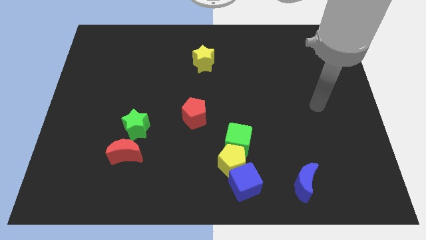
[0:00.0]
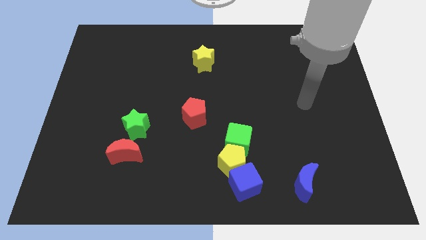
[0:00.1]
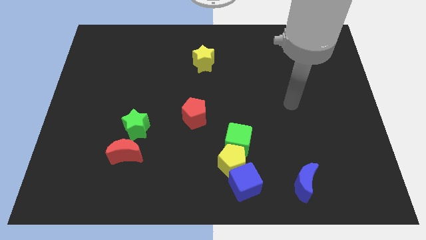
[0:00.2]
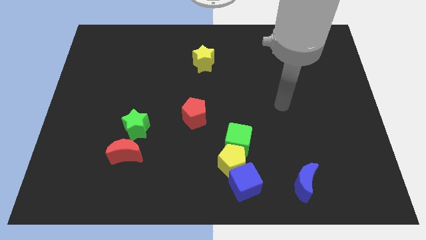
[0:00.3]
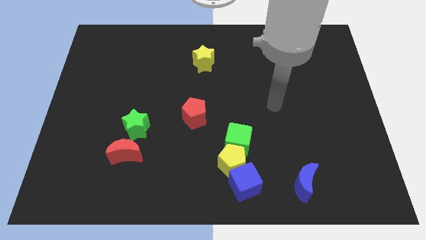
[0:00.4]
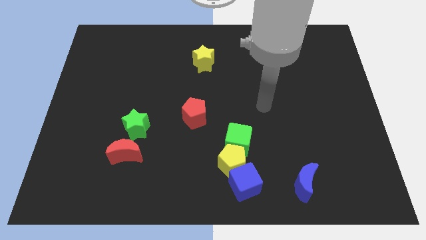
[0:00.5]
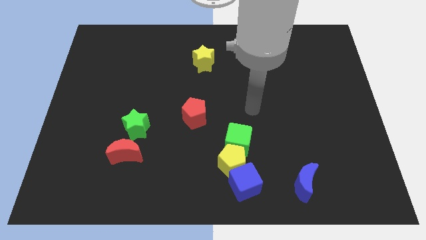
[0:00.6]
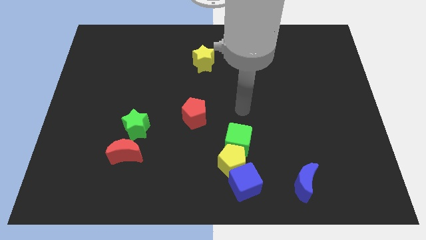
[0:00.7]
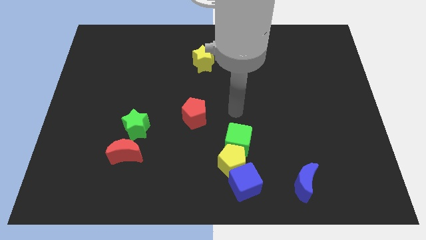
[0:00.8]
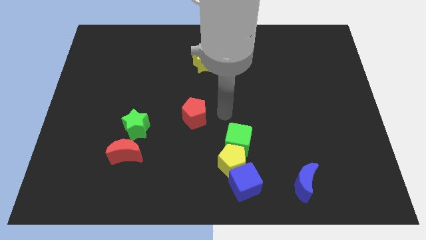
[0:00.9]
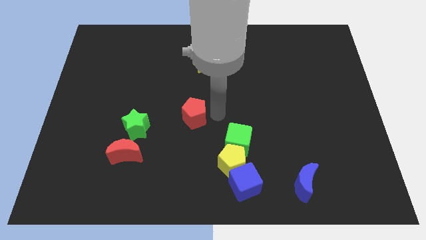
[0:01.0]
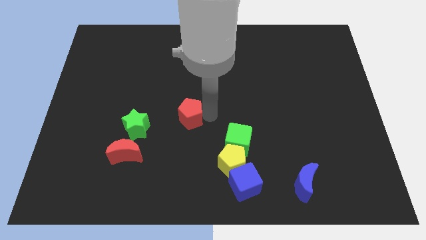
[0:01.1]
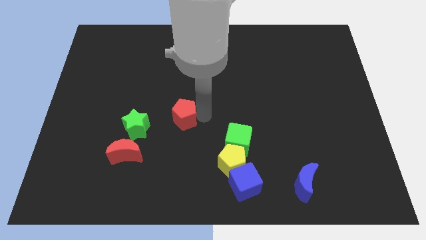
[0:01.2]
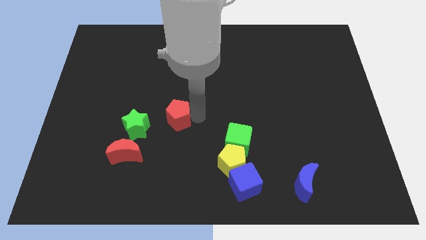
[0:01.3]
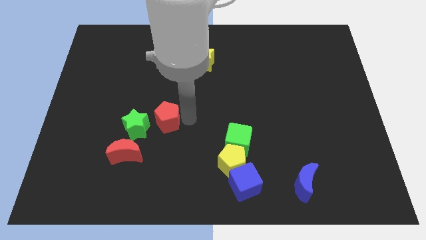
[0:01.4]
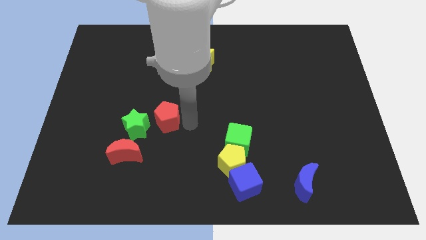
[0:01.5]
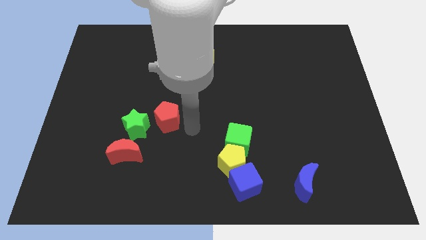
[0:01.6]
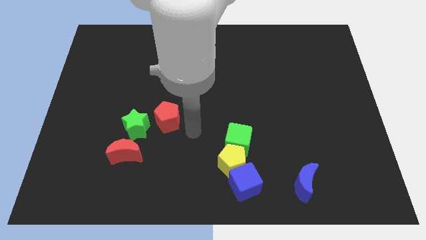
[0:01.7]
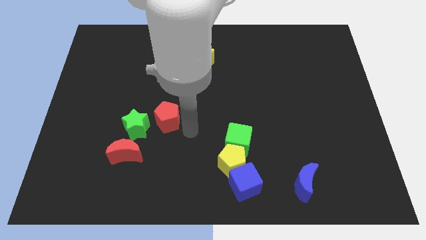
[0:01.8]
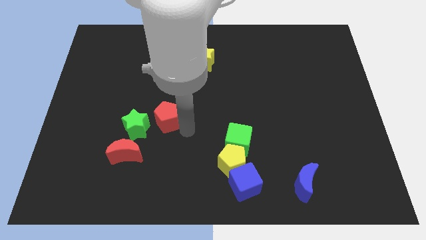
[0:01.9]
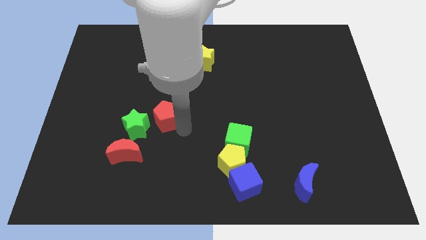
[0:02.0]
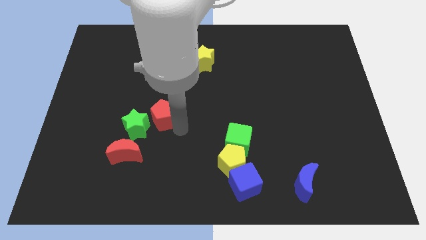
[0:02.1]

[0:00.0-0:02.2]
move the red pentagon left a little bit

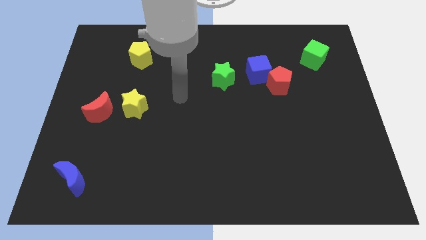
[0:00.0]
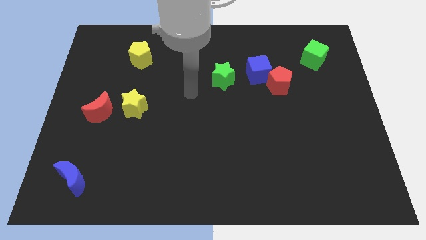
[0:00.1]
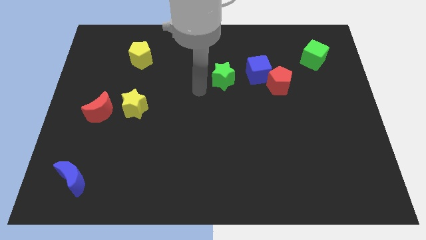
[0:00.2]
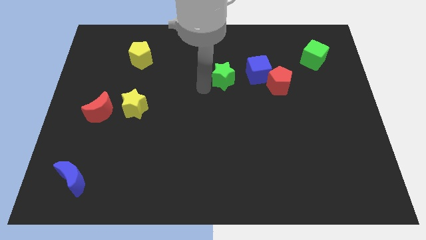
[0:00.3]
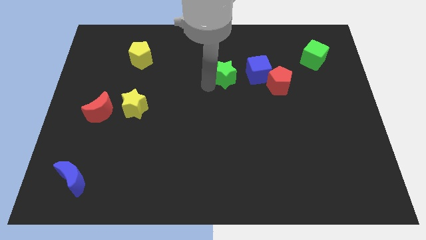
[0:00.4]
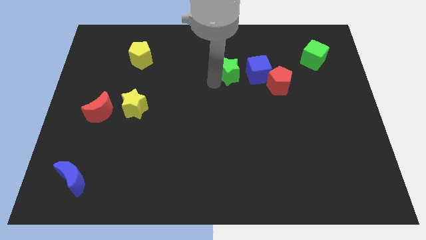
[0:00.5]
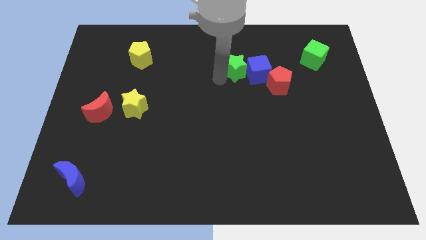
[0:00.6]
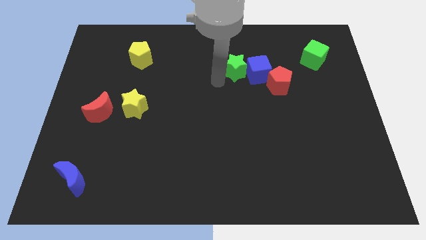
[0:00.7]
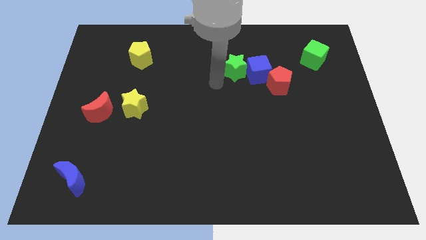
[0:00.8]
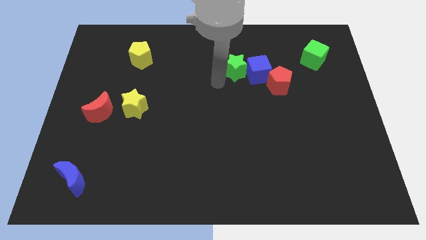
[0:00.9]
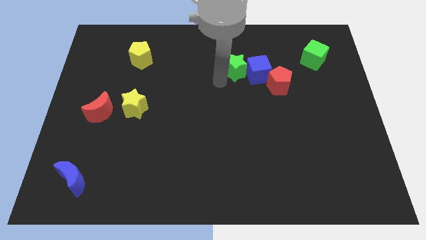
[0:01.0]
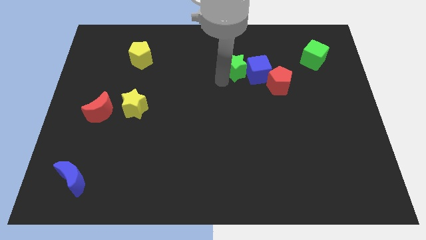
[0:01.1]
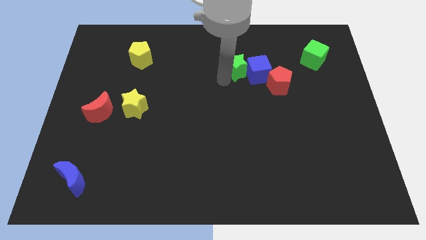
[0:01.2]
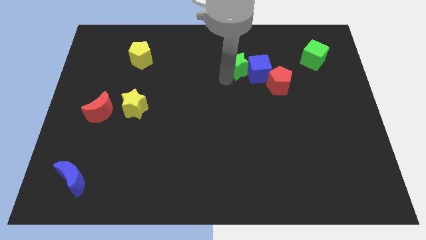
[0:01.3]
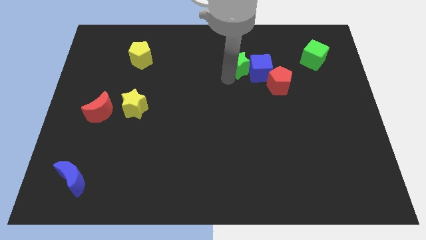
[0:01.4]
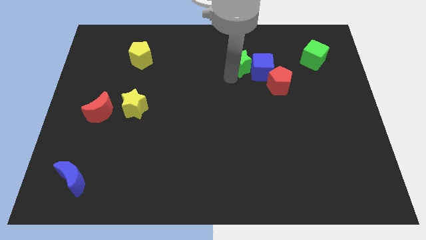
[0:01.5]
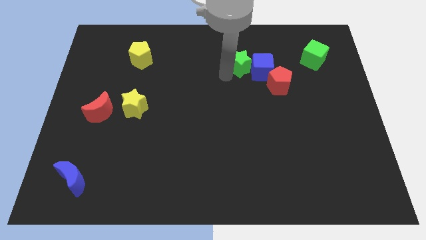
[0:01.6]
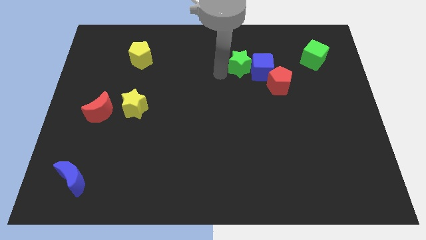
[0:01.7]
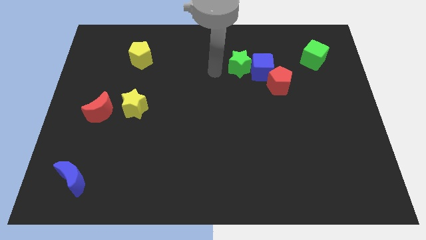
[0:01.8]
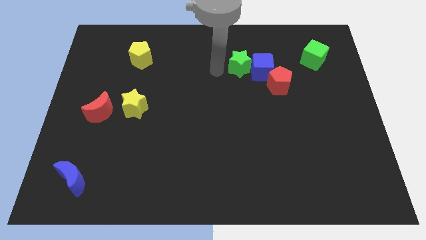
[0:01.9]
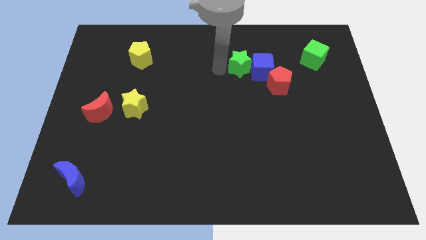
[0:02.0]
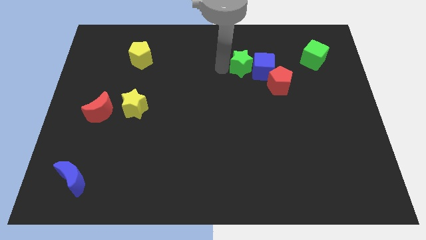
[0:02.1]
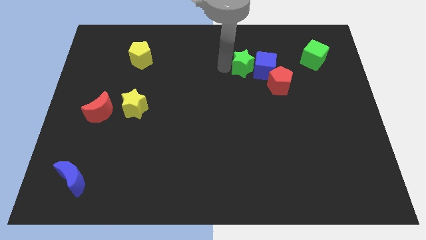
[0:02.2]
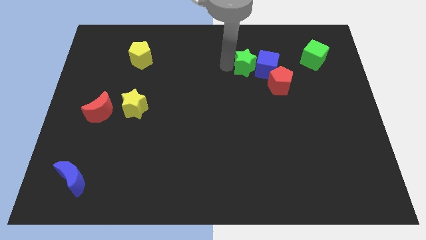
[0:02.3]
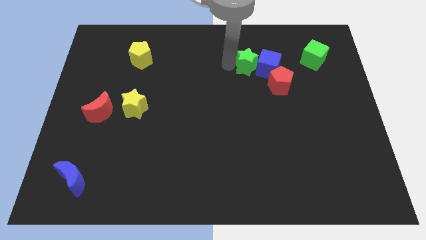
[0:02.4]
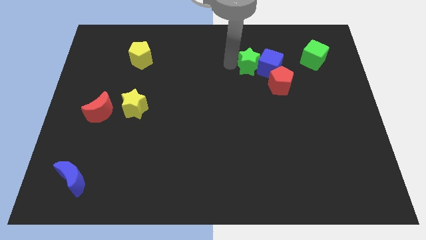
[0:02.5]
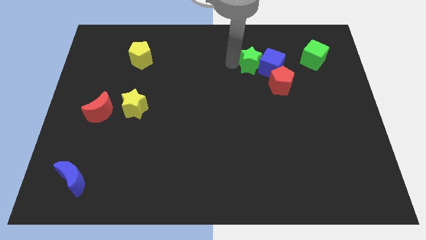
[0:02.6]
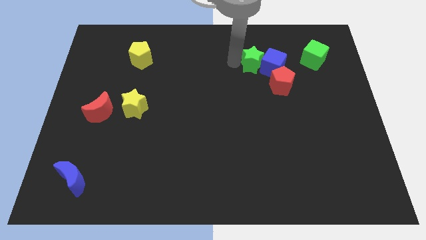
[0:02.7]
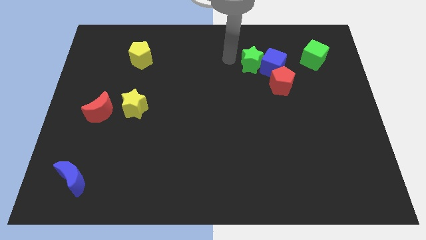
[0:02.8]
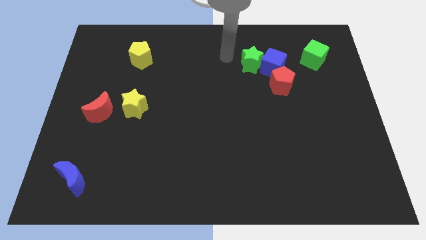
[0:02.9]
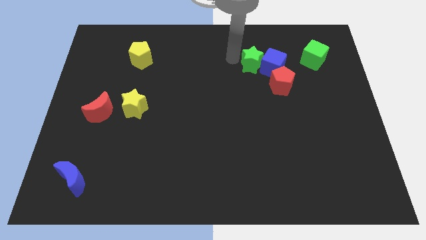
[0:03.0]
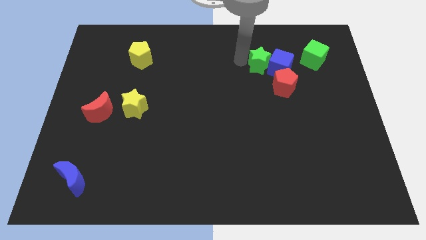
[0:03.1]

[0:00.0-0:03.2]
slightly slide the green star to the right

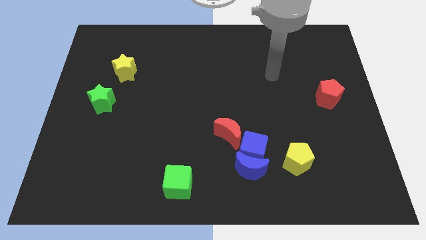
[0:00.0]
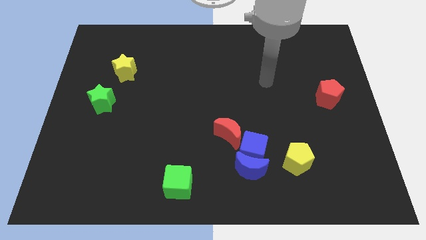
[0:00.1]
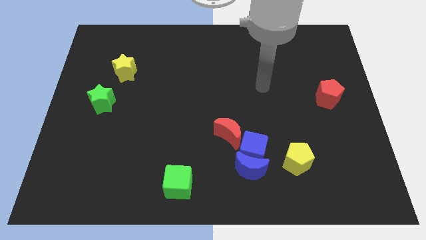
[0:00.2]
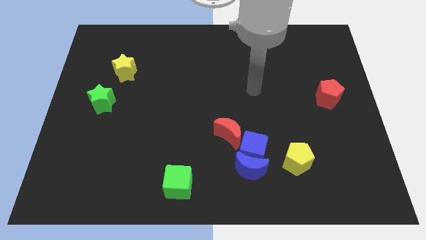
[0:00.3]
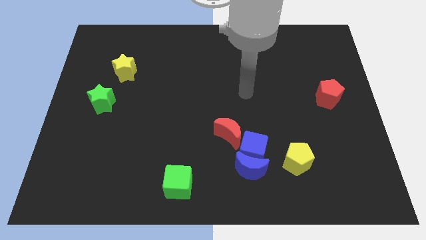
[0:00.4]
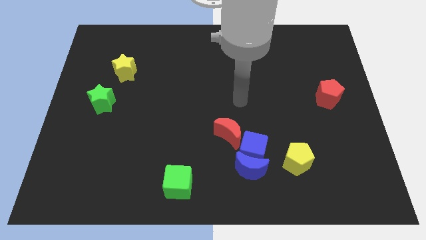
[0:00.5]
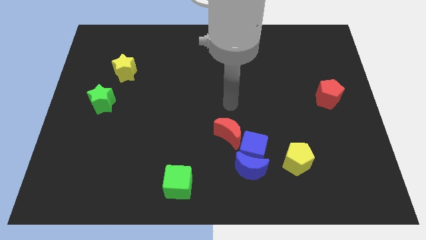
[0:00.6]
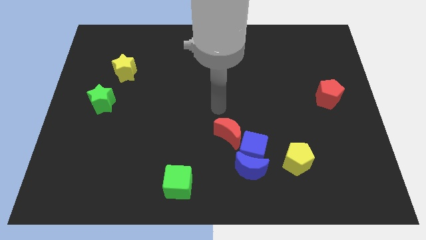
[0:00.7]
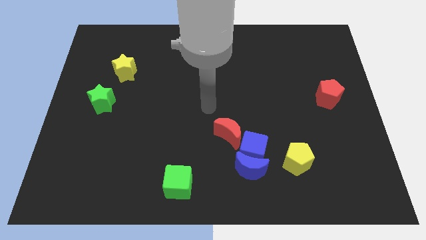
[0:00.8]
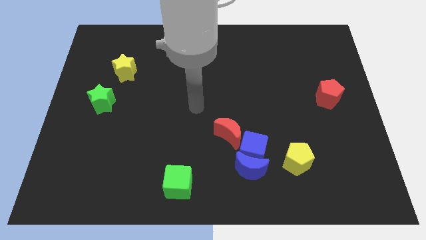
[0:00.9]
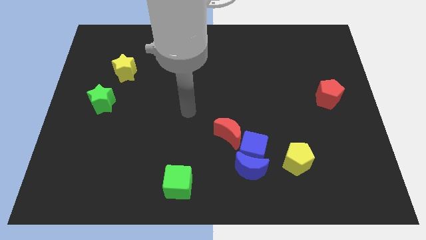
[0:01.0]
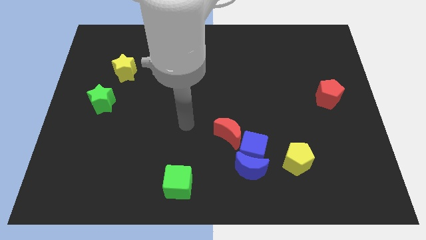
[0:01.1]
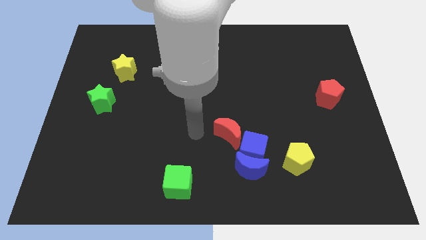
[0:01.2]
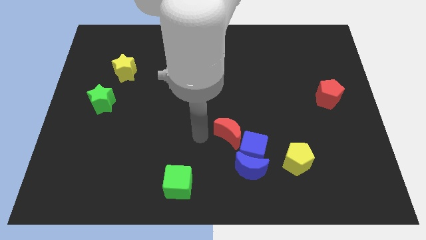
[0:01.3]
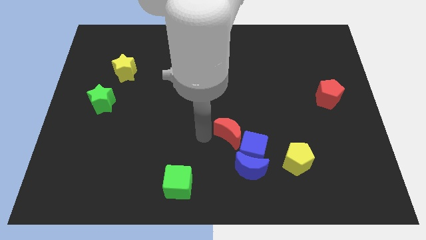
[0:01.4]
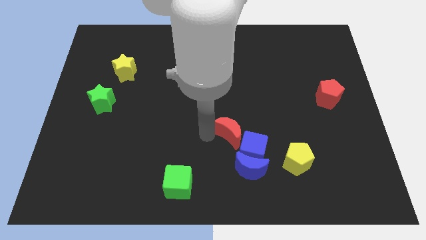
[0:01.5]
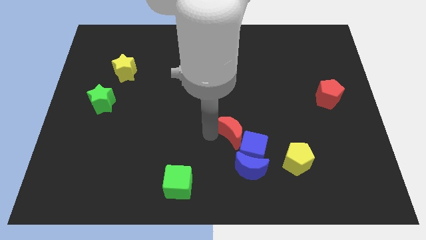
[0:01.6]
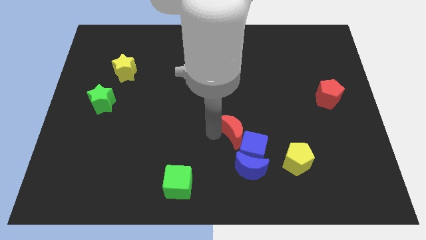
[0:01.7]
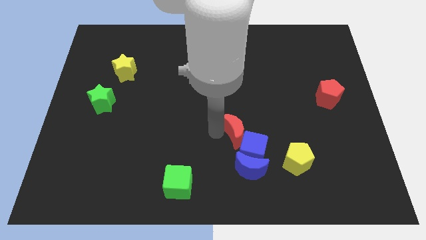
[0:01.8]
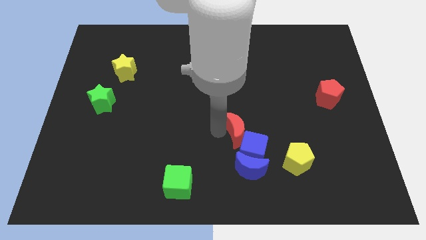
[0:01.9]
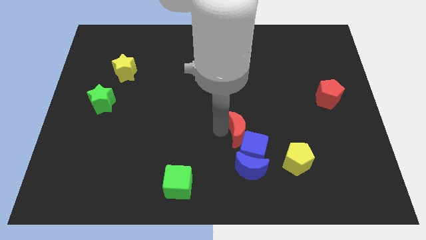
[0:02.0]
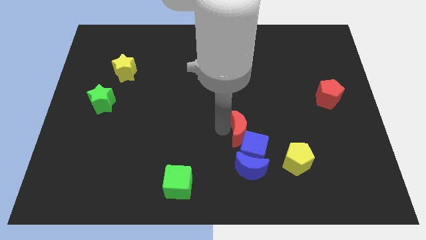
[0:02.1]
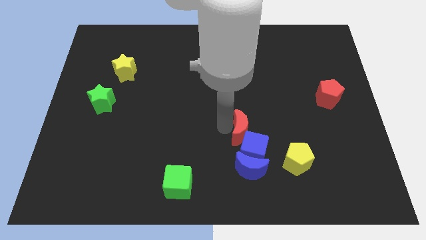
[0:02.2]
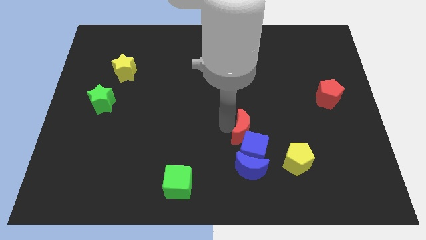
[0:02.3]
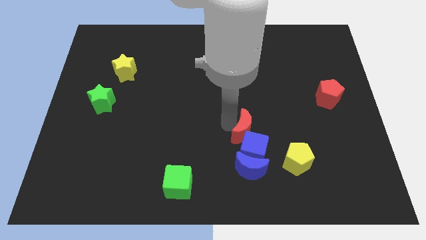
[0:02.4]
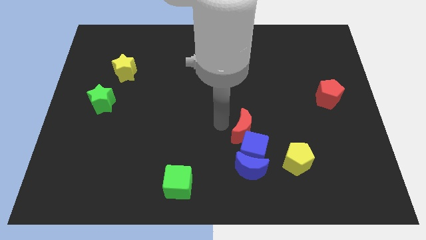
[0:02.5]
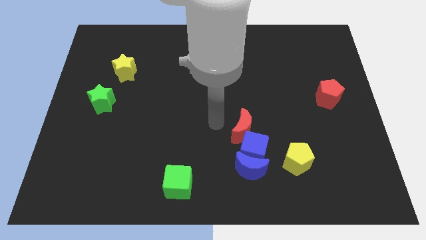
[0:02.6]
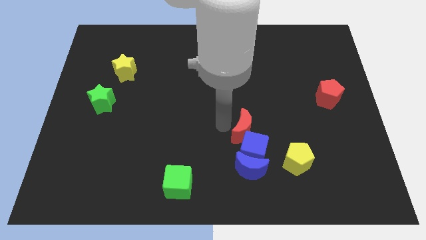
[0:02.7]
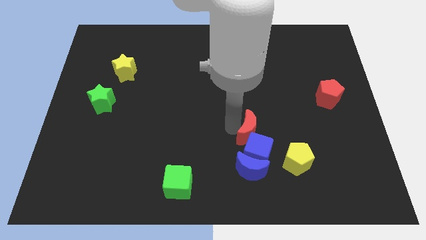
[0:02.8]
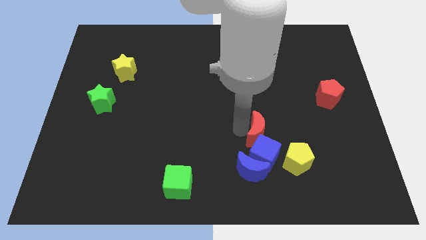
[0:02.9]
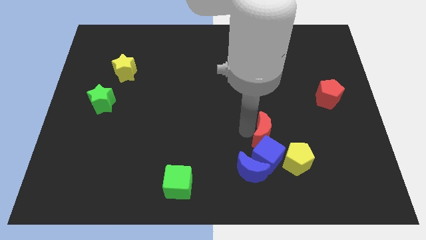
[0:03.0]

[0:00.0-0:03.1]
slightly slide the red moon right
